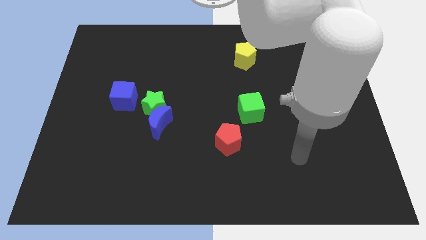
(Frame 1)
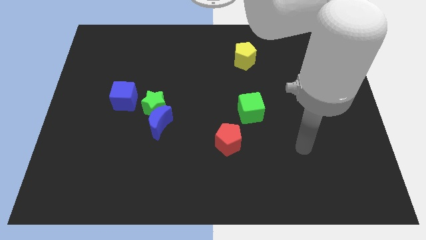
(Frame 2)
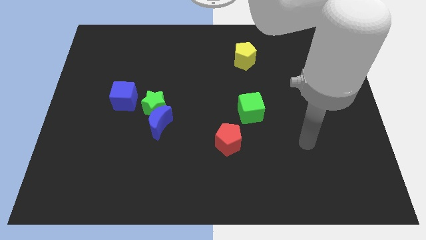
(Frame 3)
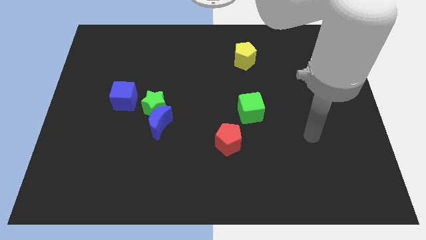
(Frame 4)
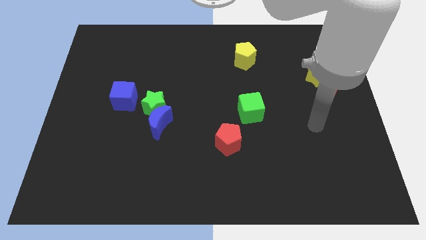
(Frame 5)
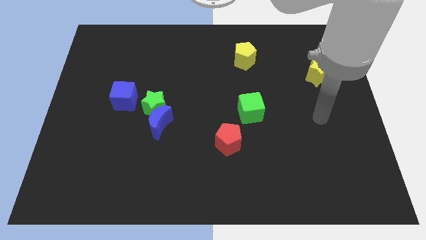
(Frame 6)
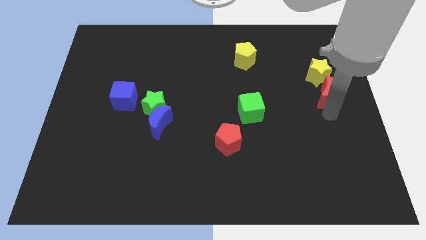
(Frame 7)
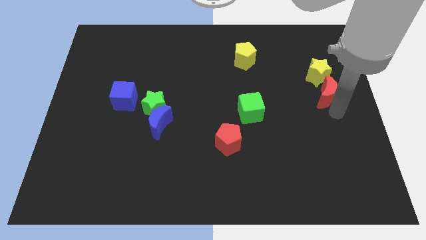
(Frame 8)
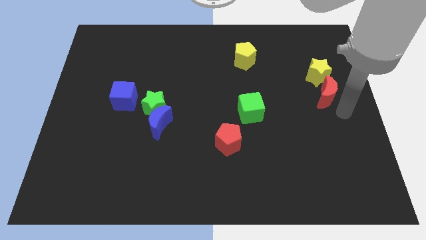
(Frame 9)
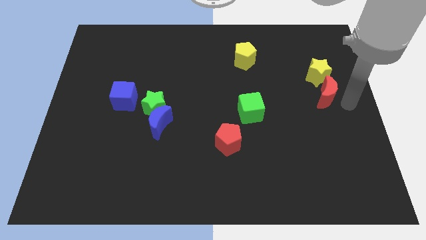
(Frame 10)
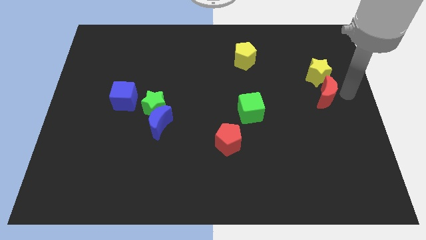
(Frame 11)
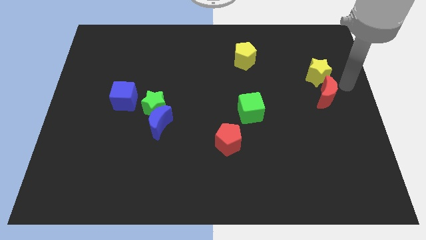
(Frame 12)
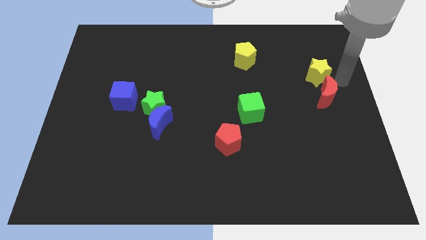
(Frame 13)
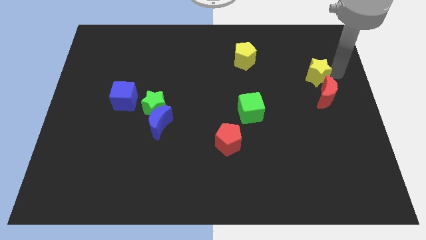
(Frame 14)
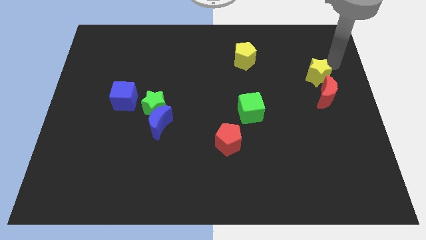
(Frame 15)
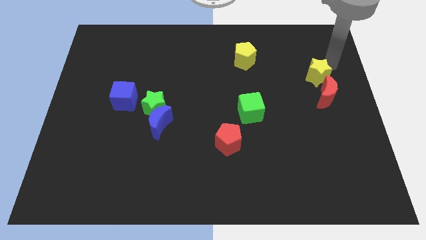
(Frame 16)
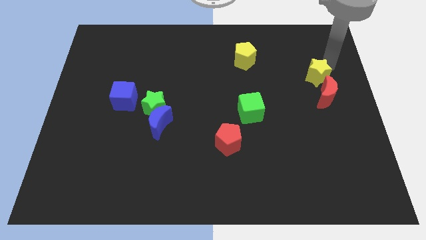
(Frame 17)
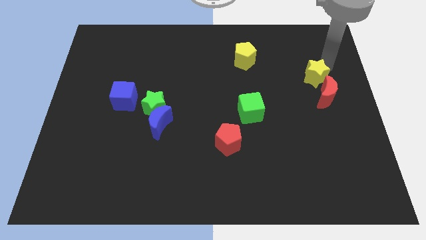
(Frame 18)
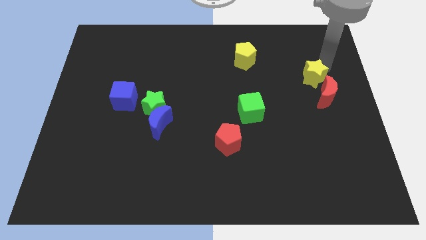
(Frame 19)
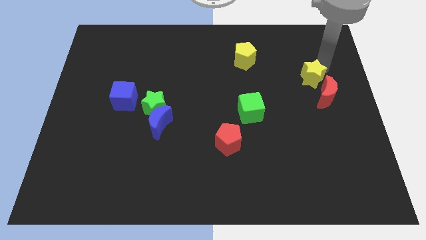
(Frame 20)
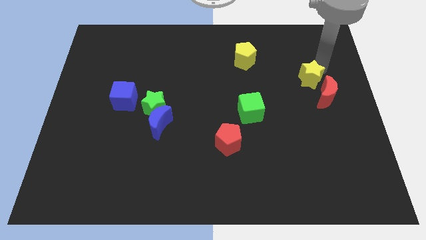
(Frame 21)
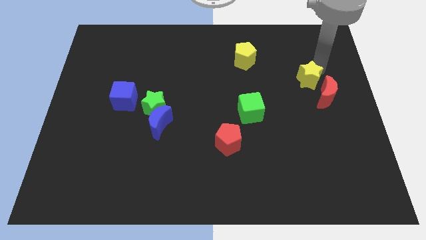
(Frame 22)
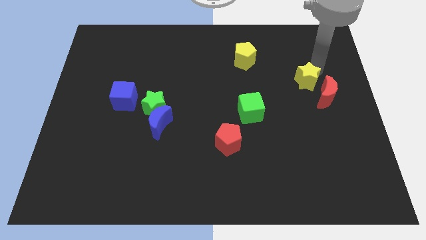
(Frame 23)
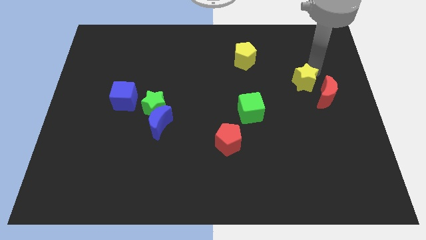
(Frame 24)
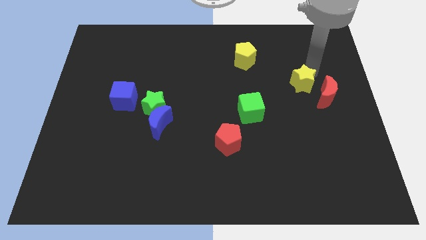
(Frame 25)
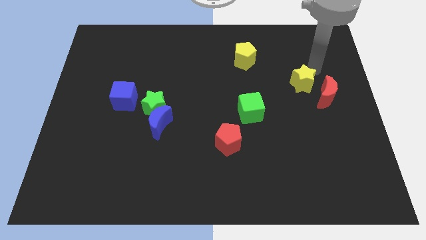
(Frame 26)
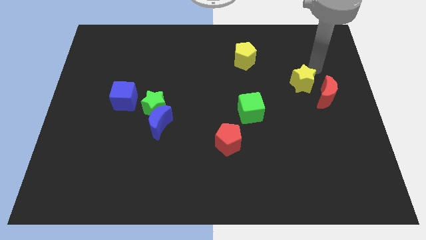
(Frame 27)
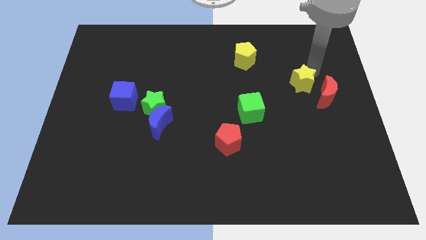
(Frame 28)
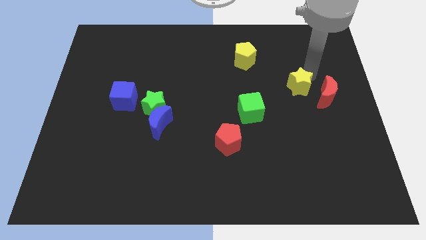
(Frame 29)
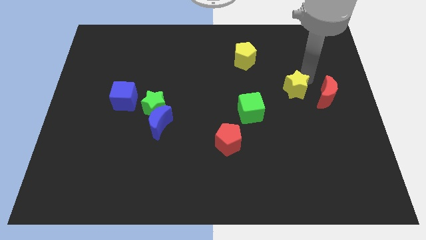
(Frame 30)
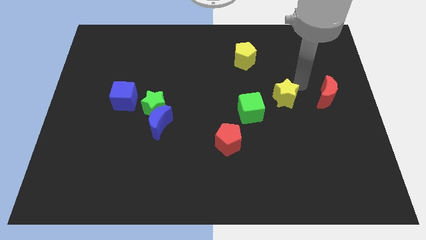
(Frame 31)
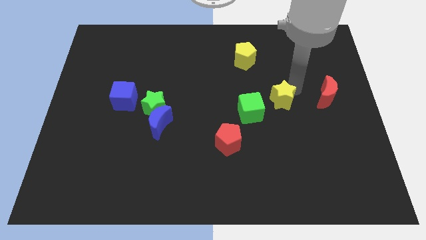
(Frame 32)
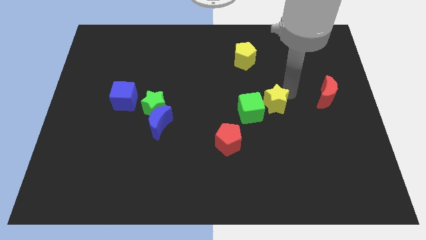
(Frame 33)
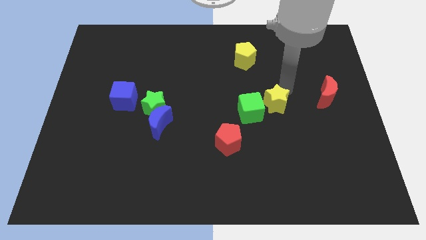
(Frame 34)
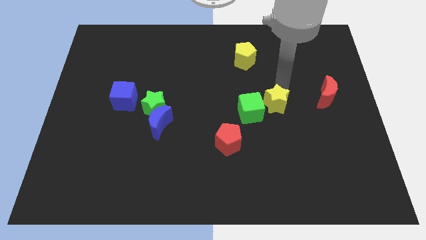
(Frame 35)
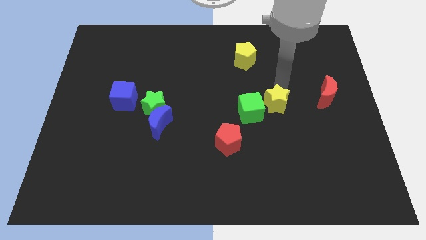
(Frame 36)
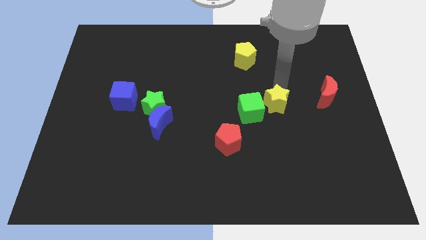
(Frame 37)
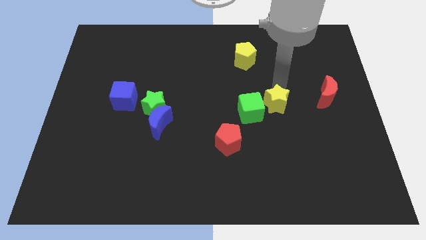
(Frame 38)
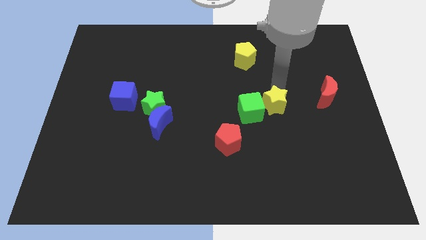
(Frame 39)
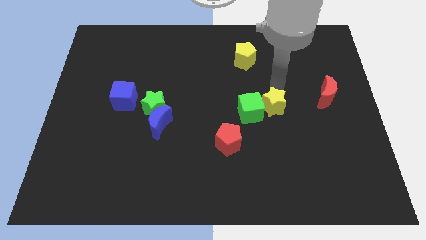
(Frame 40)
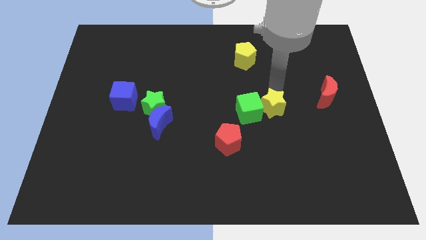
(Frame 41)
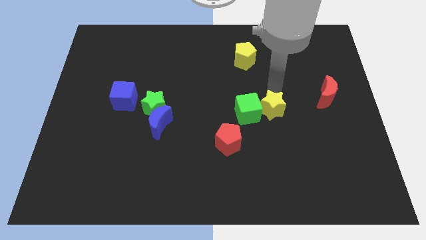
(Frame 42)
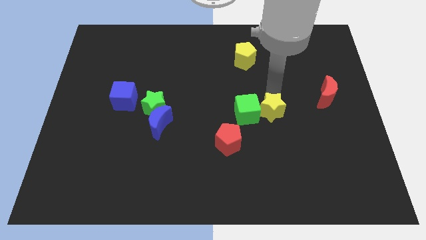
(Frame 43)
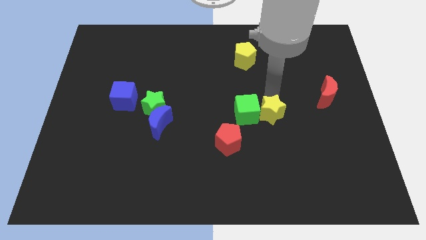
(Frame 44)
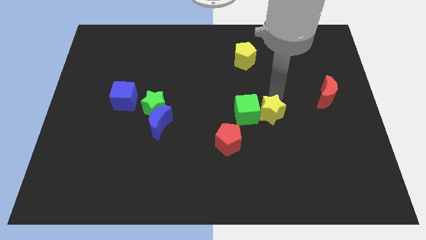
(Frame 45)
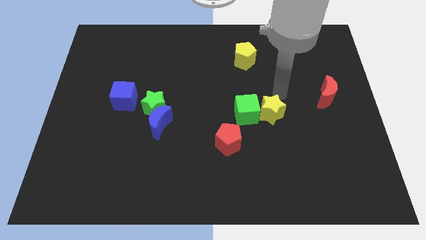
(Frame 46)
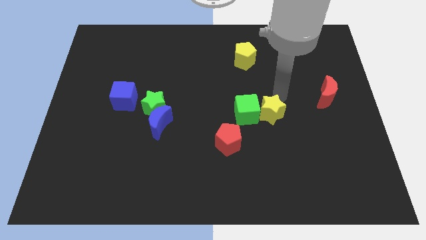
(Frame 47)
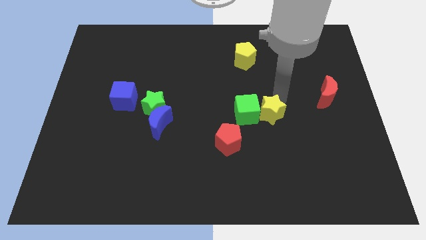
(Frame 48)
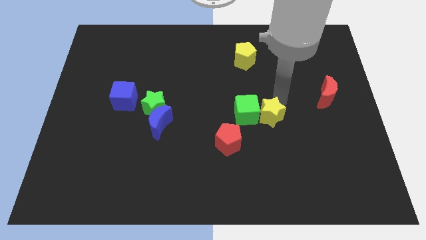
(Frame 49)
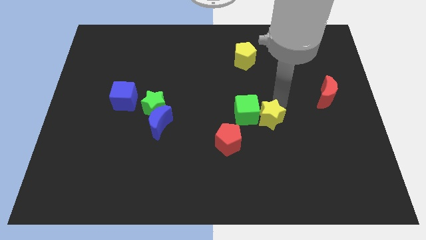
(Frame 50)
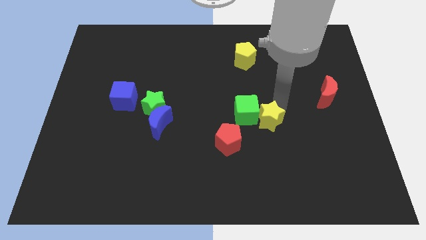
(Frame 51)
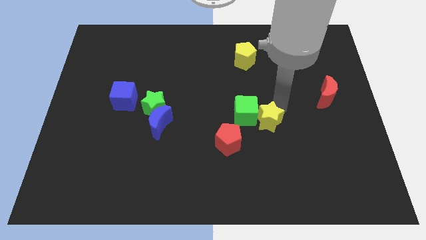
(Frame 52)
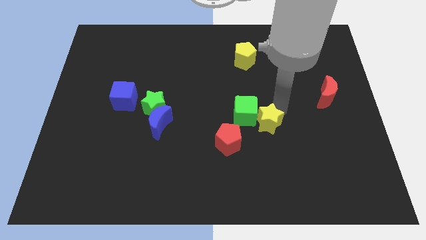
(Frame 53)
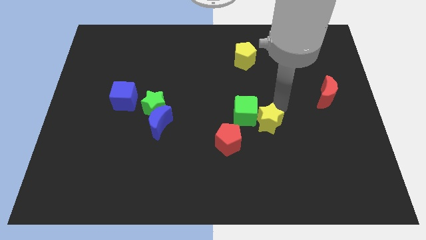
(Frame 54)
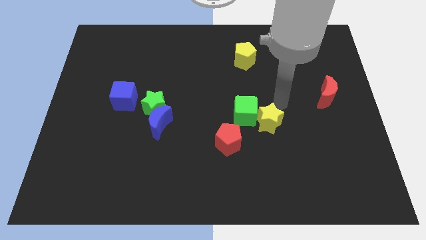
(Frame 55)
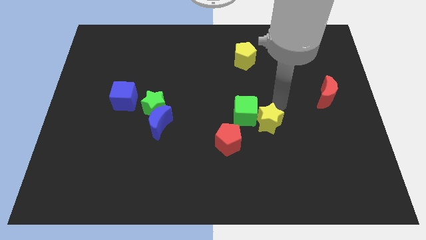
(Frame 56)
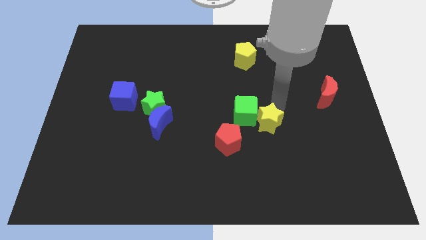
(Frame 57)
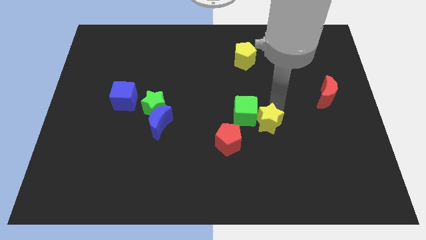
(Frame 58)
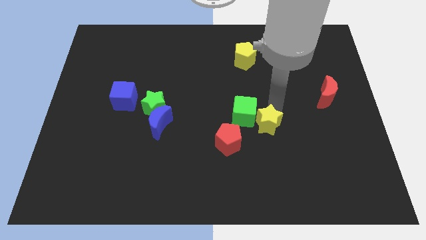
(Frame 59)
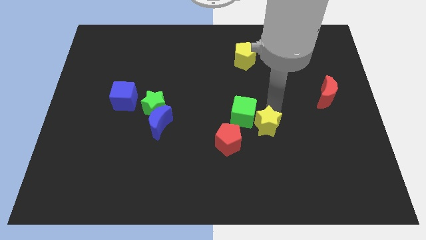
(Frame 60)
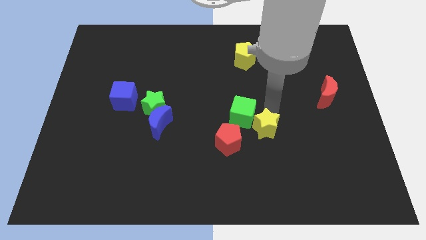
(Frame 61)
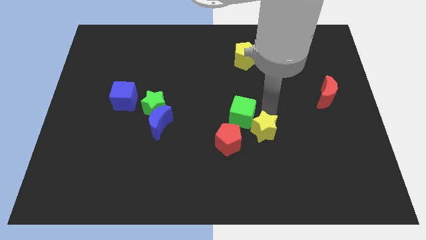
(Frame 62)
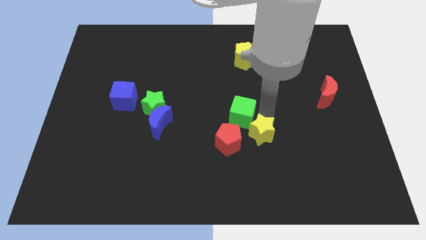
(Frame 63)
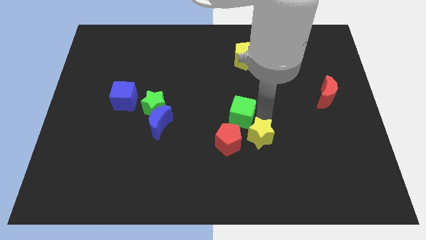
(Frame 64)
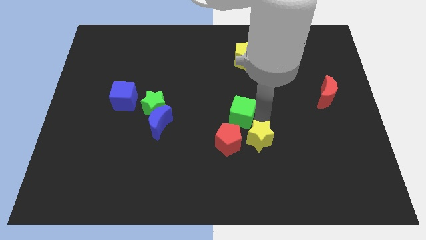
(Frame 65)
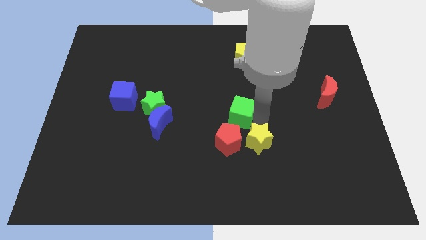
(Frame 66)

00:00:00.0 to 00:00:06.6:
move the yellow star diagonally down and to the right of the red pentagon

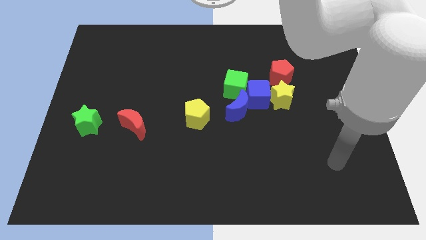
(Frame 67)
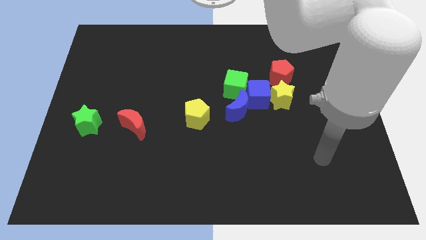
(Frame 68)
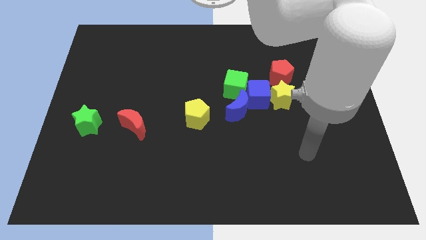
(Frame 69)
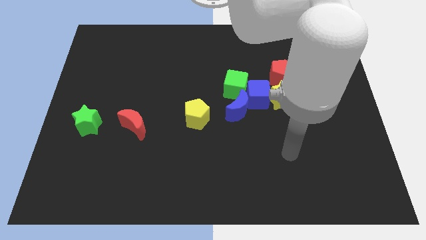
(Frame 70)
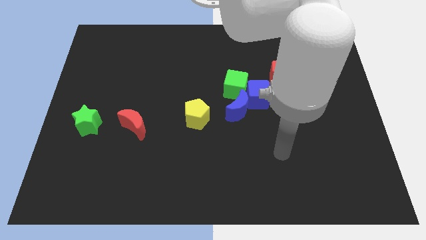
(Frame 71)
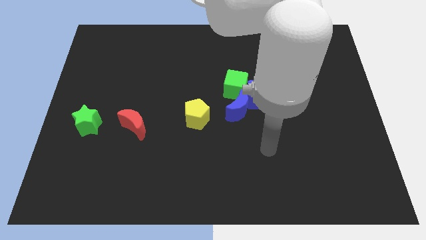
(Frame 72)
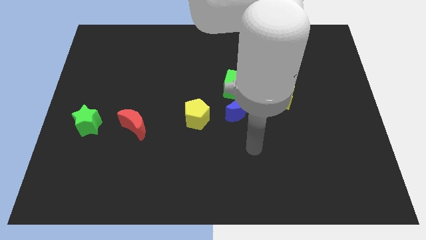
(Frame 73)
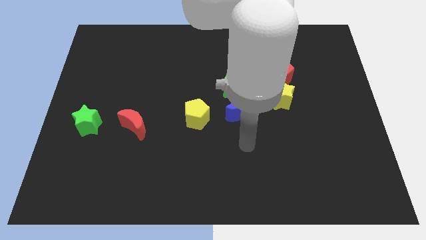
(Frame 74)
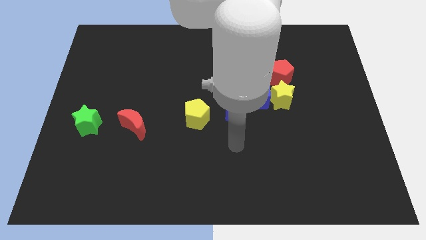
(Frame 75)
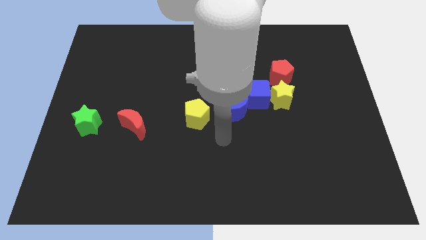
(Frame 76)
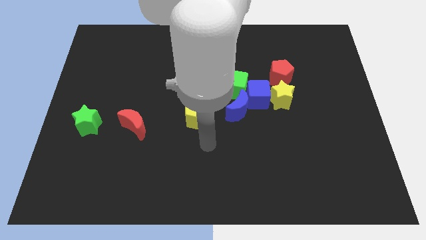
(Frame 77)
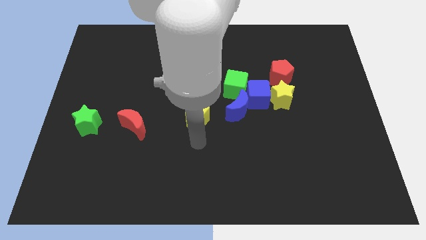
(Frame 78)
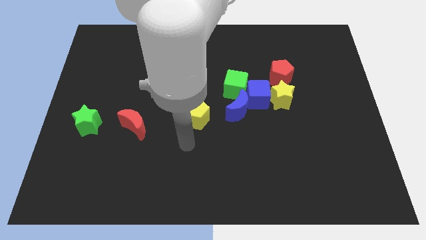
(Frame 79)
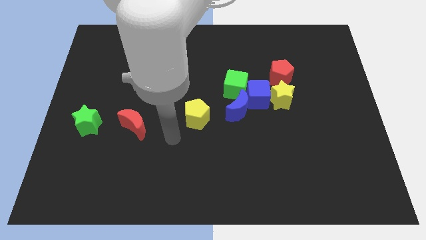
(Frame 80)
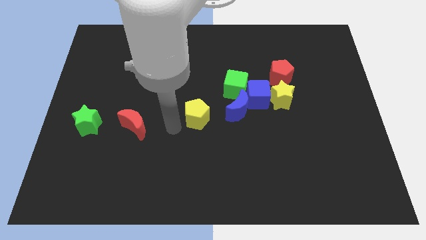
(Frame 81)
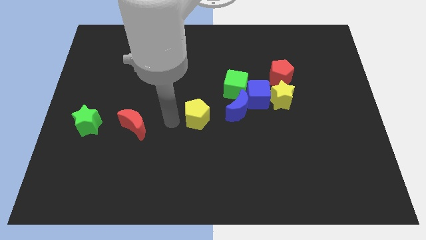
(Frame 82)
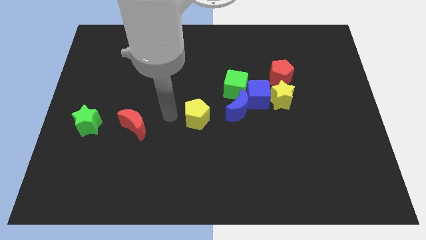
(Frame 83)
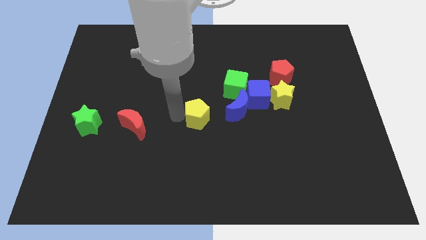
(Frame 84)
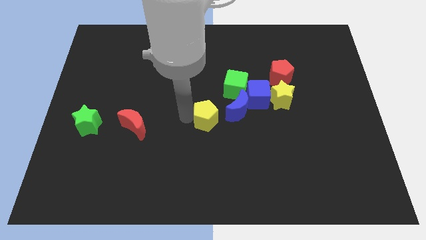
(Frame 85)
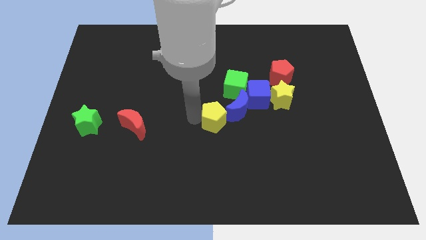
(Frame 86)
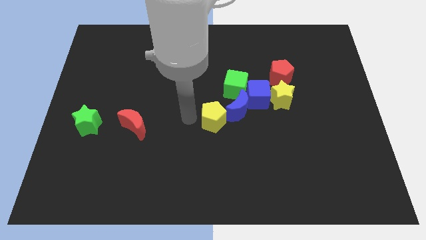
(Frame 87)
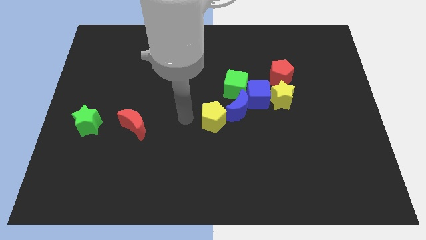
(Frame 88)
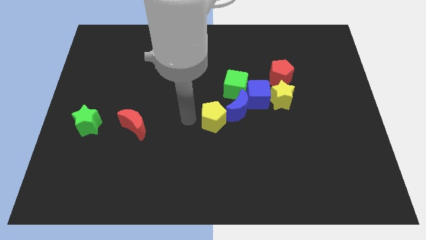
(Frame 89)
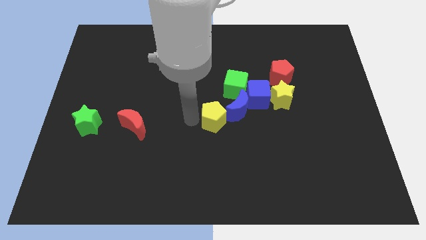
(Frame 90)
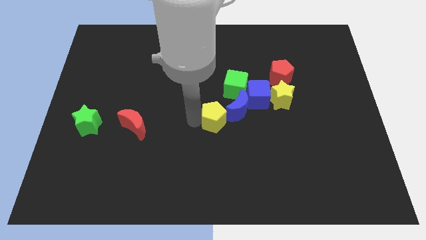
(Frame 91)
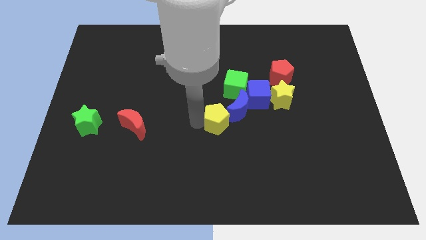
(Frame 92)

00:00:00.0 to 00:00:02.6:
push the yellow pentagon to the bottom side of the green cube
